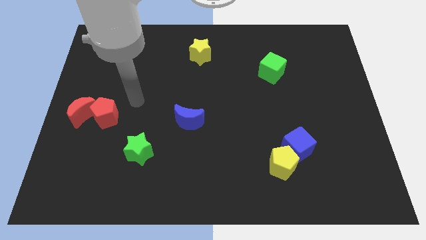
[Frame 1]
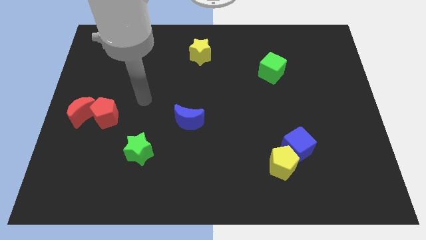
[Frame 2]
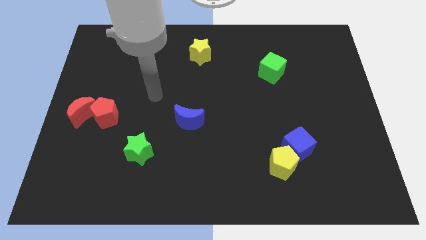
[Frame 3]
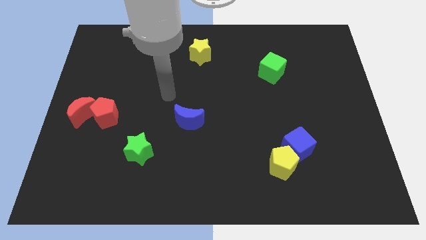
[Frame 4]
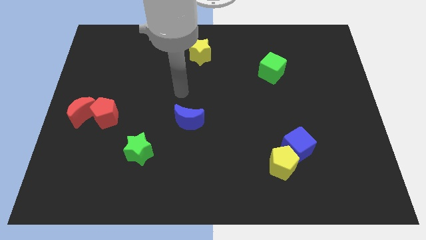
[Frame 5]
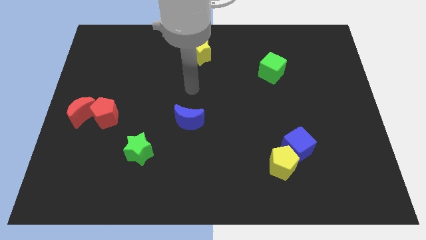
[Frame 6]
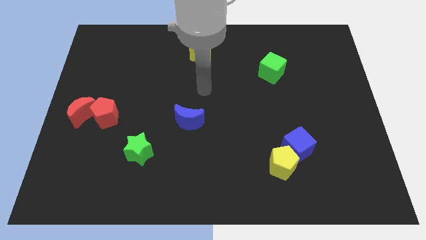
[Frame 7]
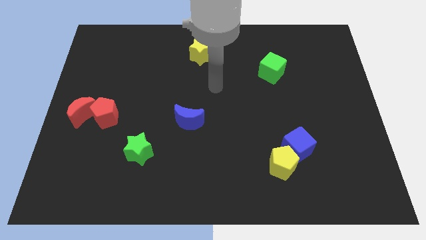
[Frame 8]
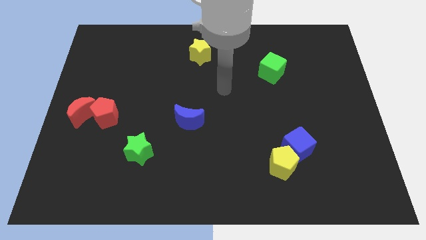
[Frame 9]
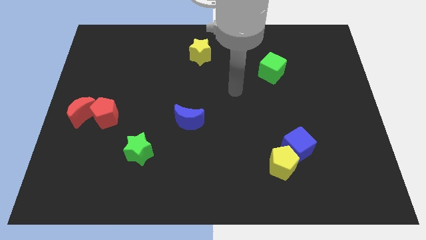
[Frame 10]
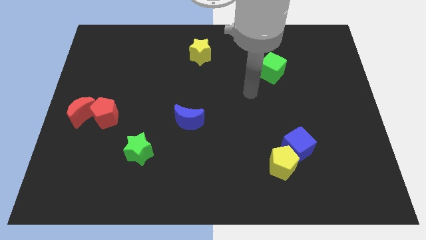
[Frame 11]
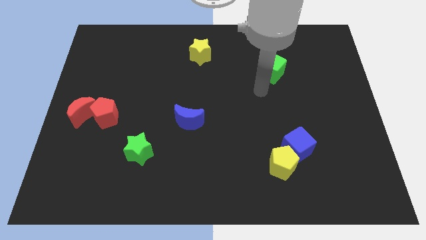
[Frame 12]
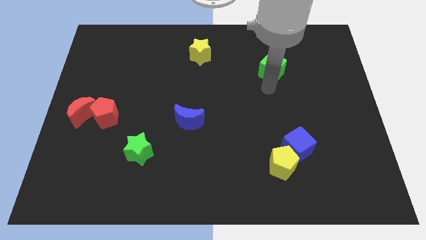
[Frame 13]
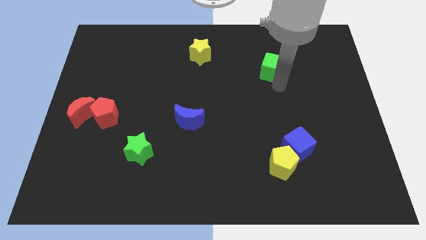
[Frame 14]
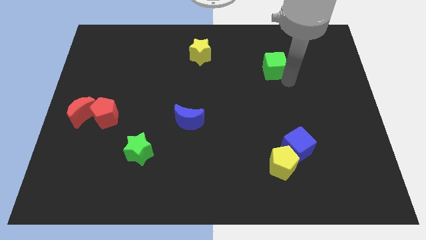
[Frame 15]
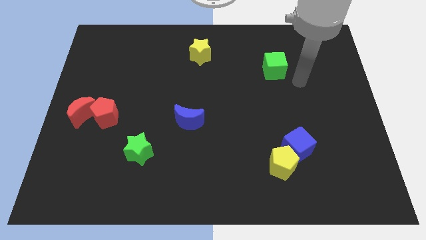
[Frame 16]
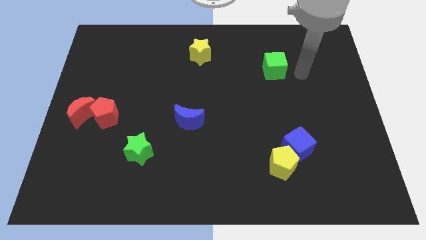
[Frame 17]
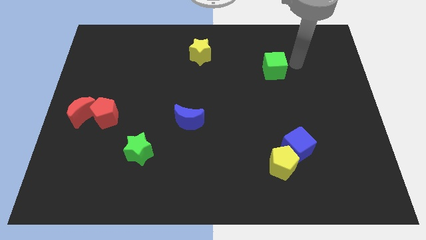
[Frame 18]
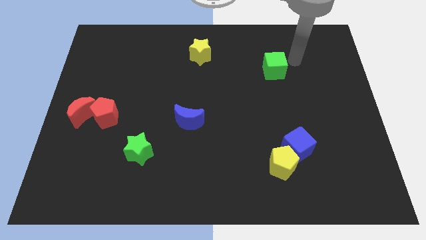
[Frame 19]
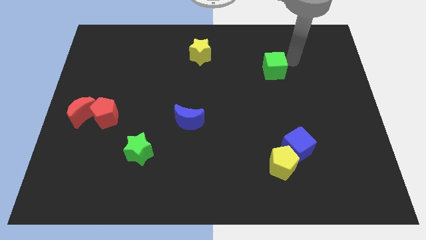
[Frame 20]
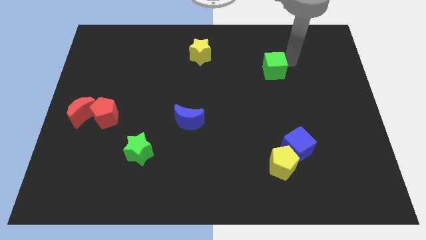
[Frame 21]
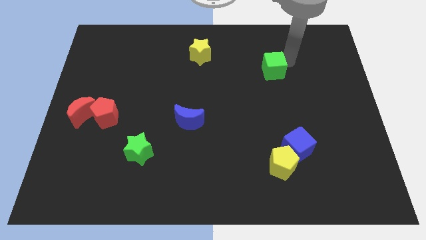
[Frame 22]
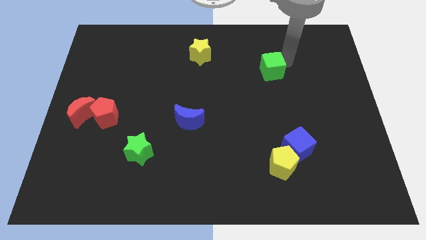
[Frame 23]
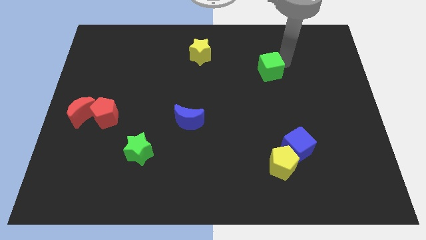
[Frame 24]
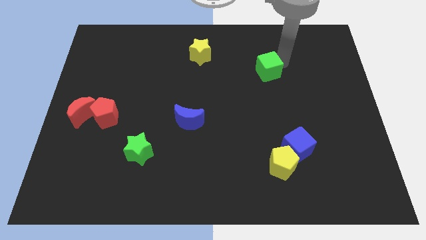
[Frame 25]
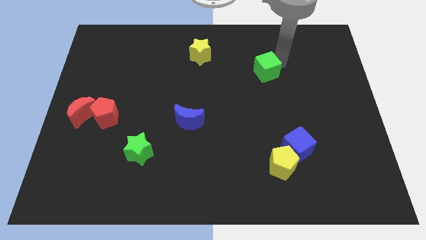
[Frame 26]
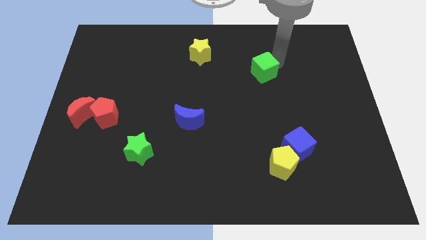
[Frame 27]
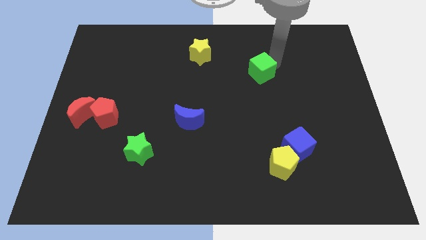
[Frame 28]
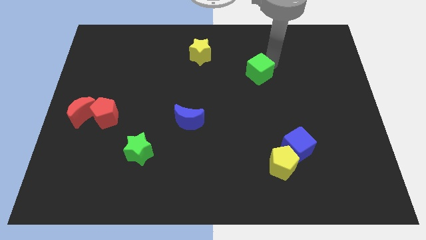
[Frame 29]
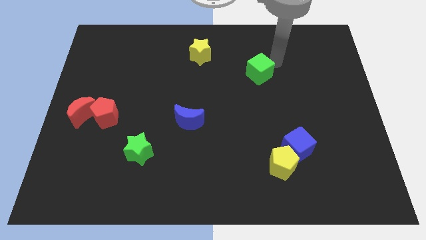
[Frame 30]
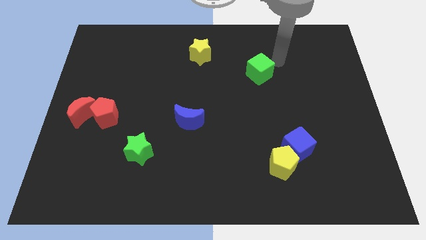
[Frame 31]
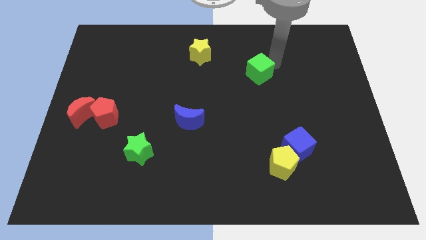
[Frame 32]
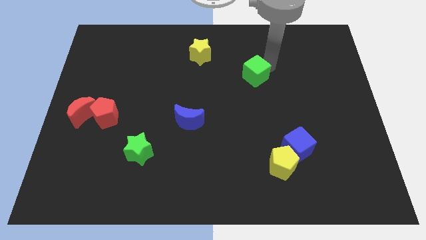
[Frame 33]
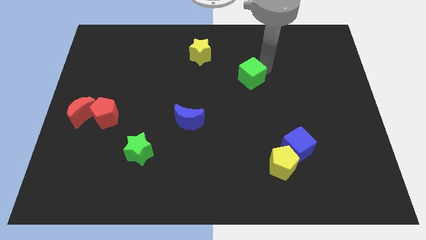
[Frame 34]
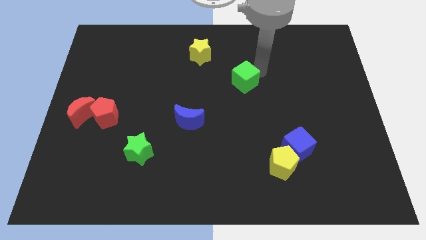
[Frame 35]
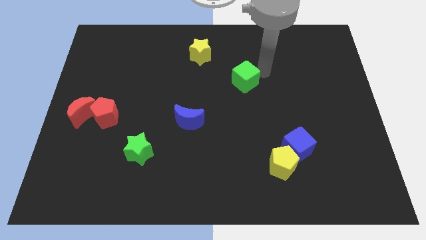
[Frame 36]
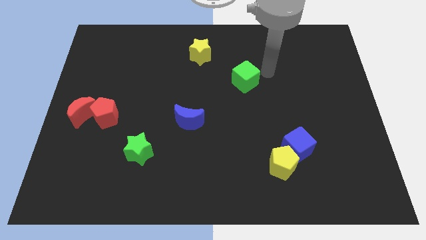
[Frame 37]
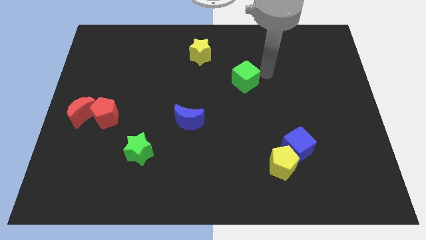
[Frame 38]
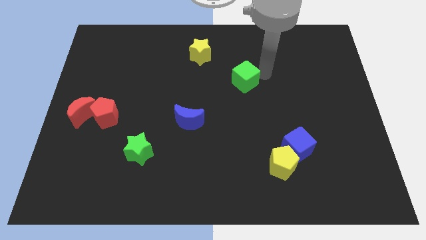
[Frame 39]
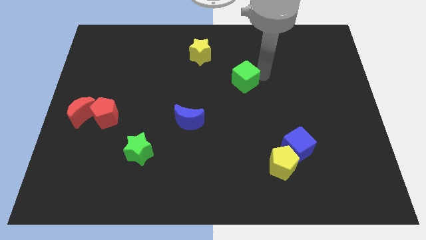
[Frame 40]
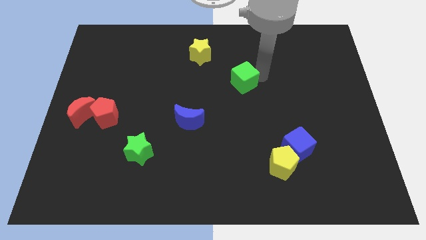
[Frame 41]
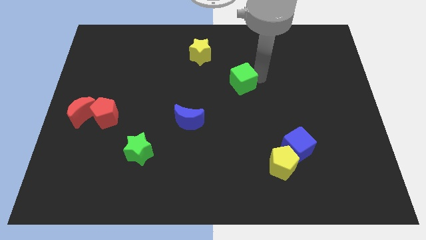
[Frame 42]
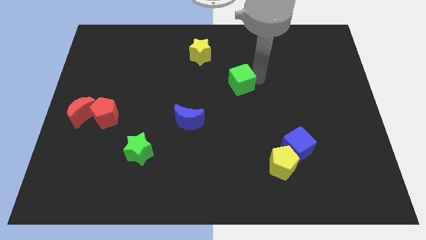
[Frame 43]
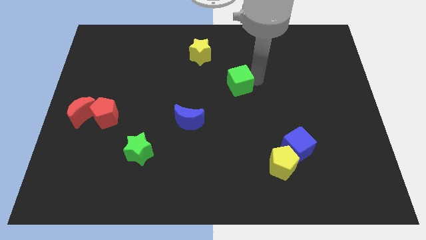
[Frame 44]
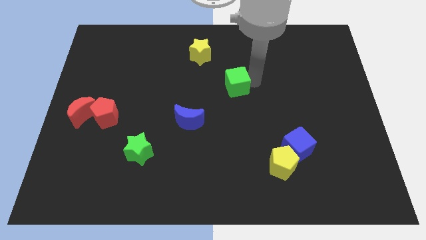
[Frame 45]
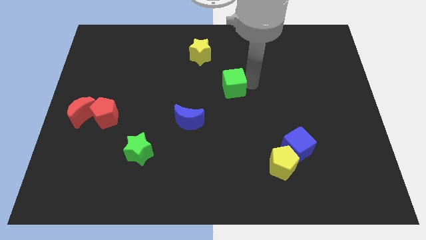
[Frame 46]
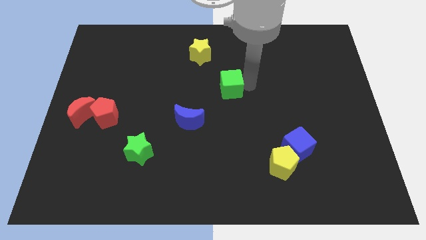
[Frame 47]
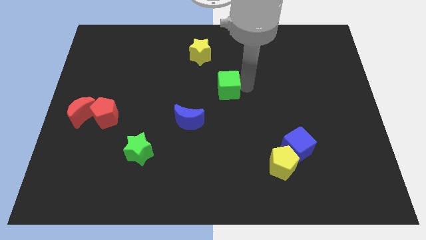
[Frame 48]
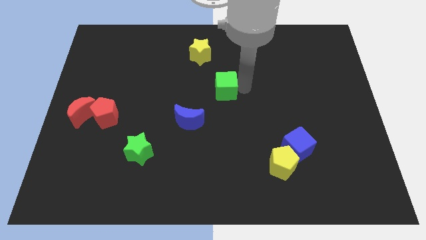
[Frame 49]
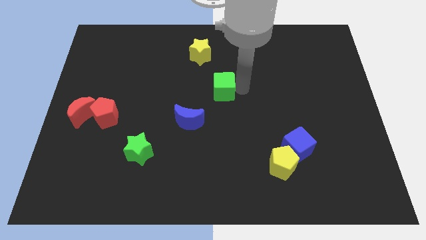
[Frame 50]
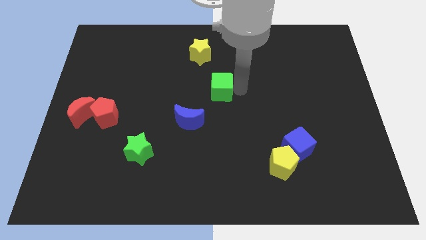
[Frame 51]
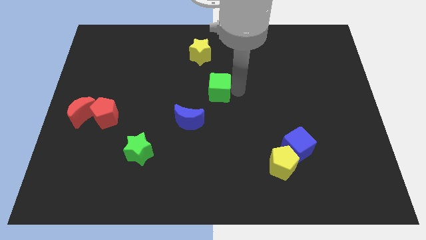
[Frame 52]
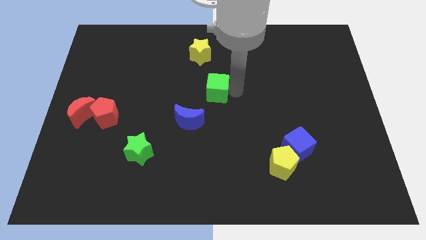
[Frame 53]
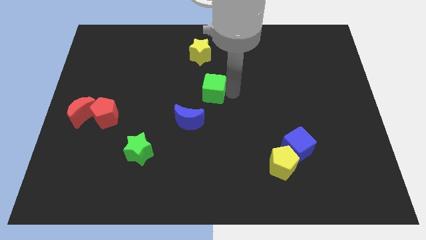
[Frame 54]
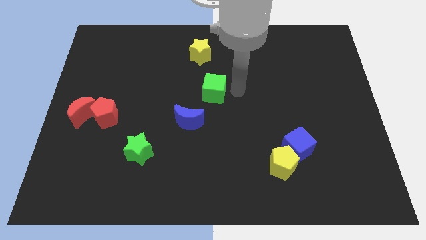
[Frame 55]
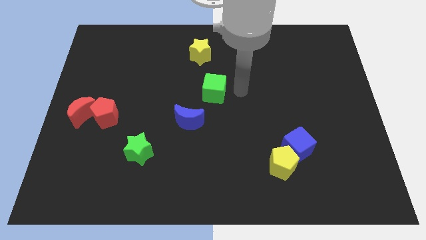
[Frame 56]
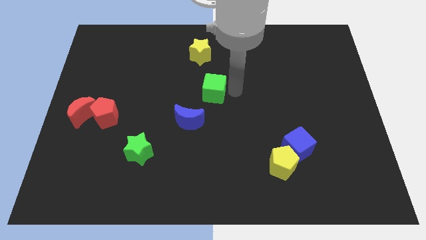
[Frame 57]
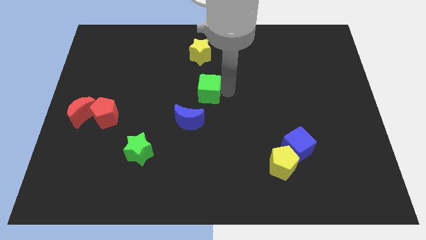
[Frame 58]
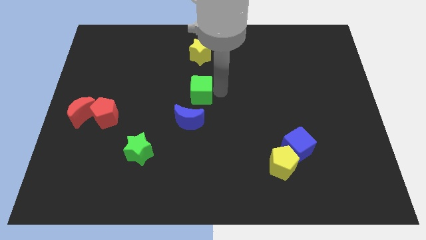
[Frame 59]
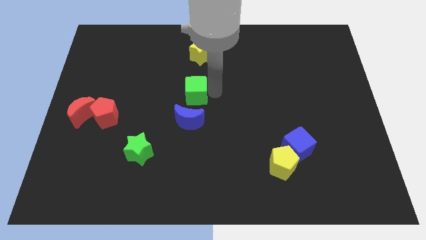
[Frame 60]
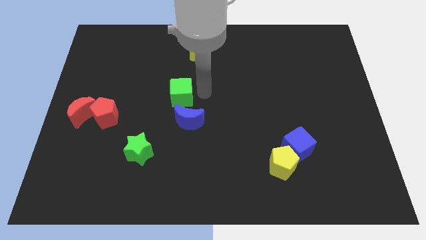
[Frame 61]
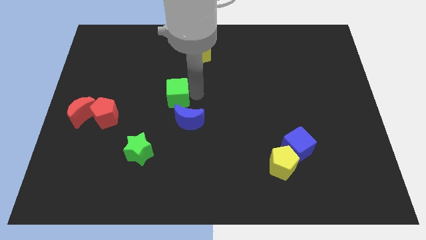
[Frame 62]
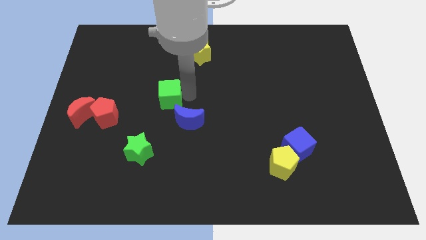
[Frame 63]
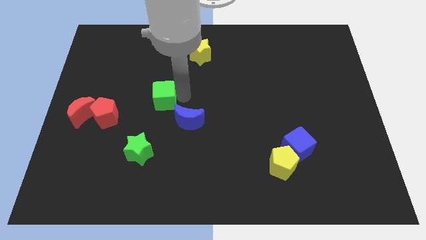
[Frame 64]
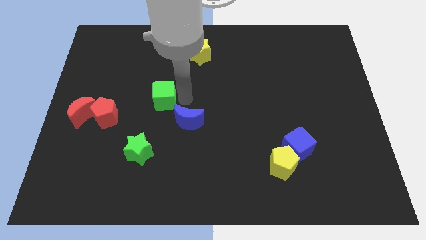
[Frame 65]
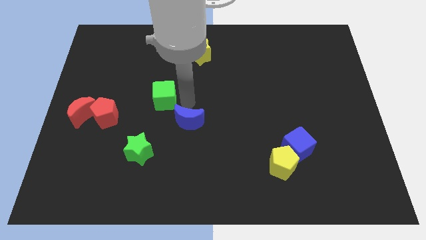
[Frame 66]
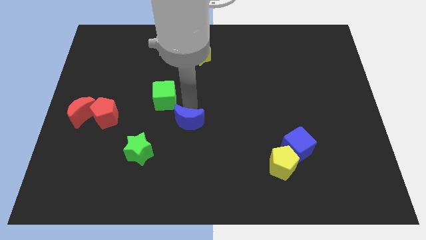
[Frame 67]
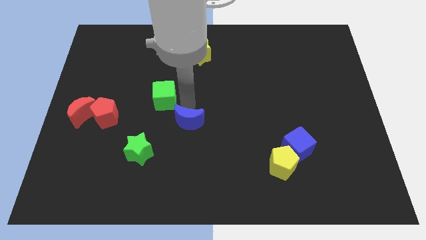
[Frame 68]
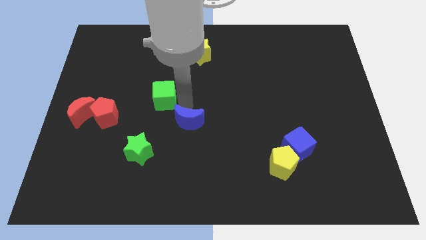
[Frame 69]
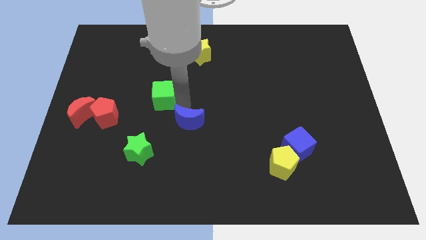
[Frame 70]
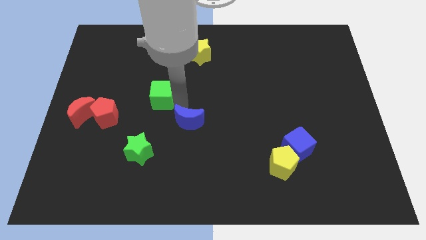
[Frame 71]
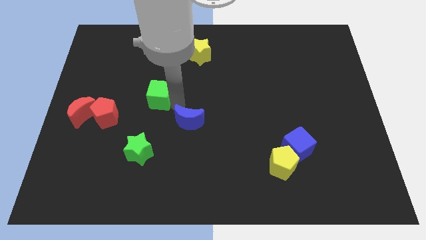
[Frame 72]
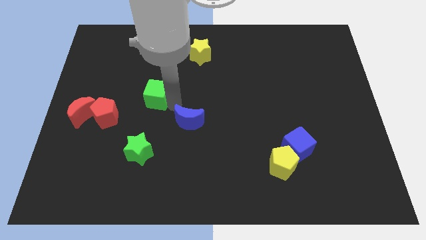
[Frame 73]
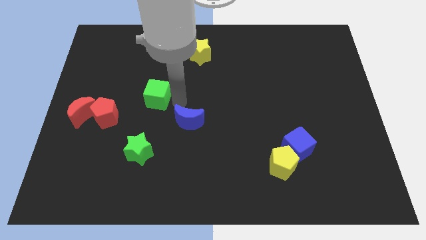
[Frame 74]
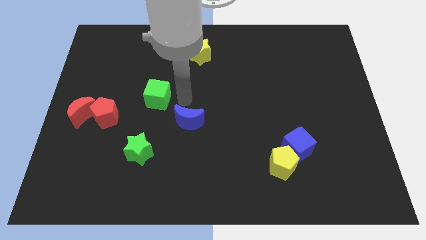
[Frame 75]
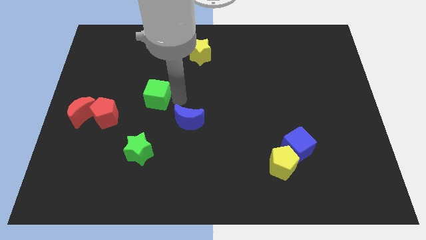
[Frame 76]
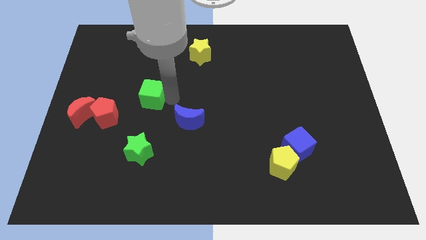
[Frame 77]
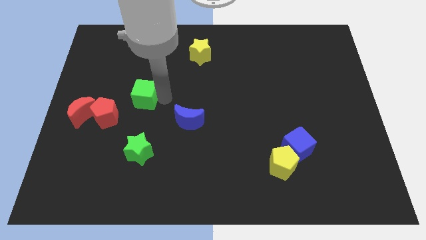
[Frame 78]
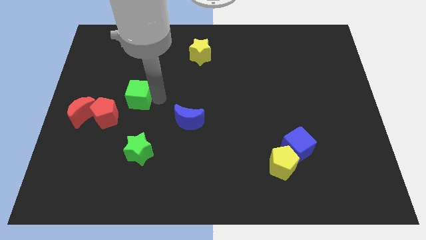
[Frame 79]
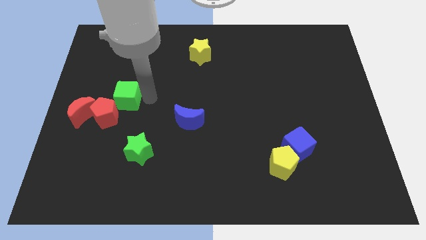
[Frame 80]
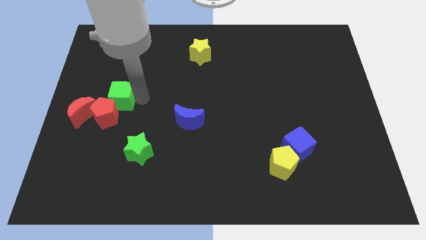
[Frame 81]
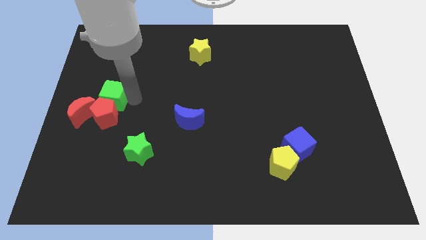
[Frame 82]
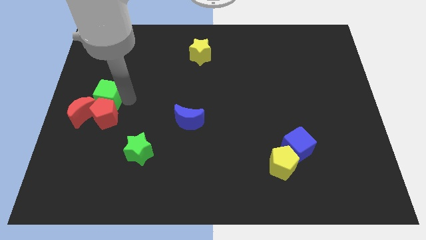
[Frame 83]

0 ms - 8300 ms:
move the green cube to the left side
